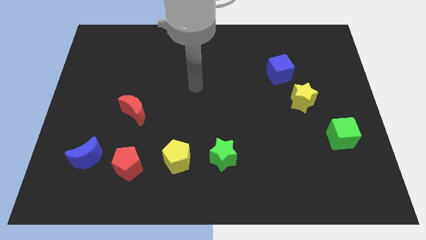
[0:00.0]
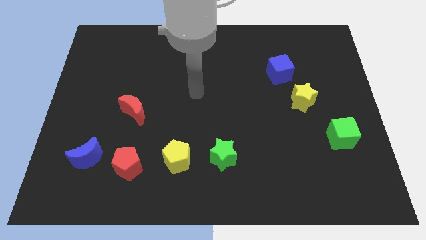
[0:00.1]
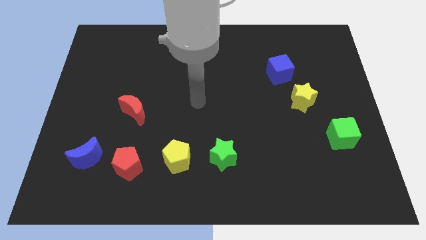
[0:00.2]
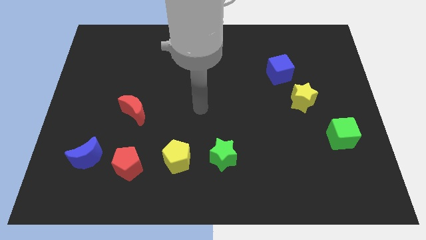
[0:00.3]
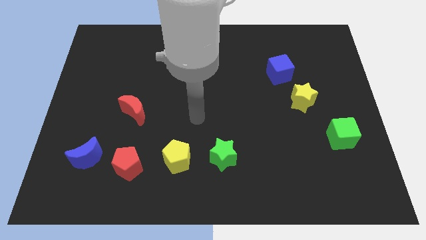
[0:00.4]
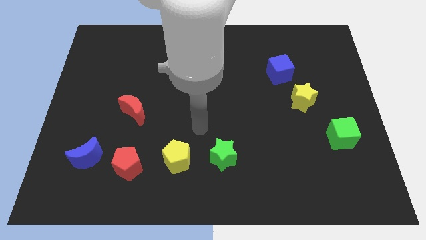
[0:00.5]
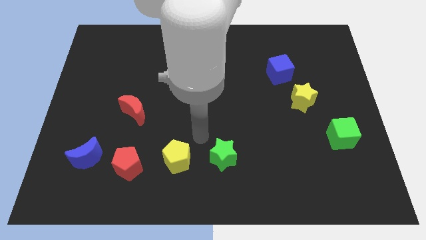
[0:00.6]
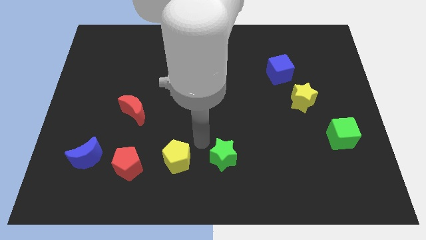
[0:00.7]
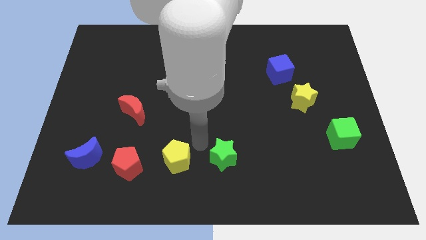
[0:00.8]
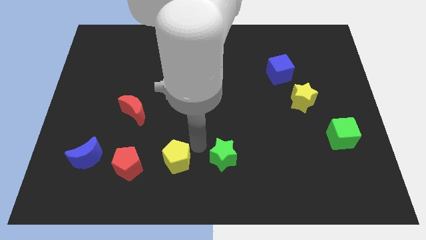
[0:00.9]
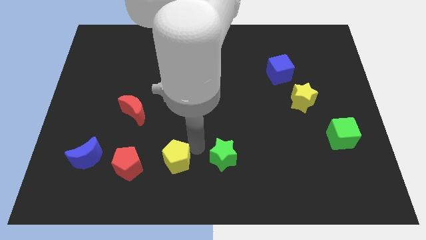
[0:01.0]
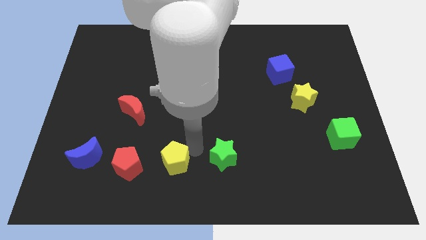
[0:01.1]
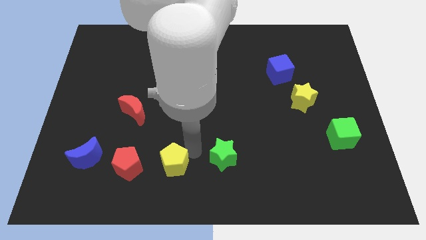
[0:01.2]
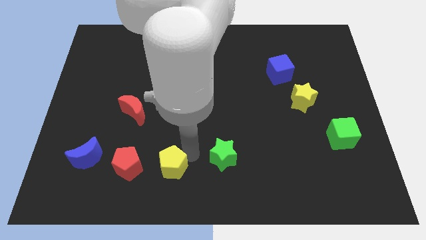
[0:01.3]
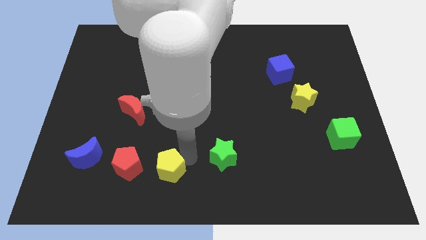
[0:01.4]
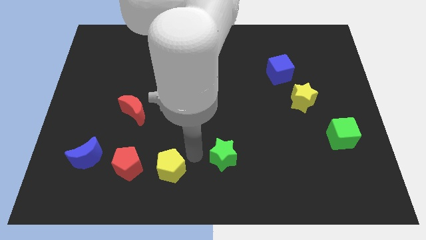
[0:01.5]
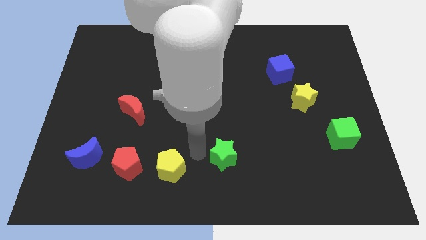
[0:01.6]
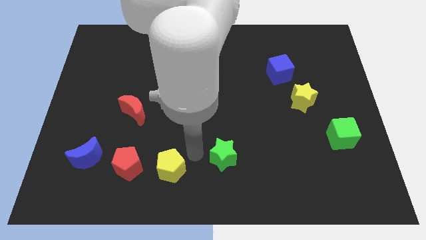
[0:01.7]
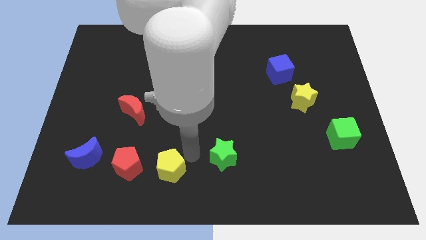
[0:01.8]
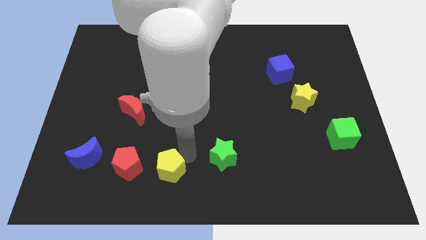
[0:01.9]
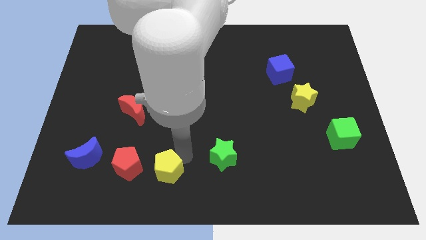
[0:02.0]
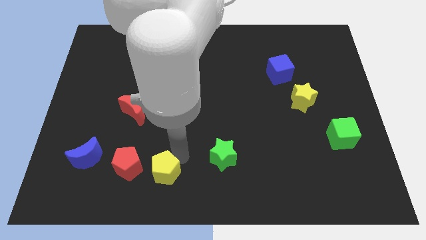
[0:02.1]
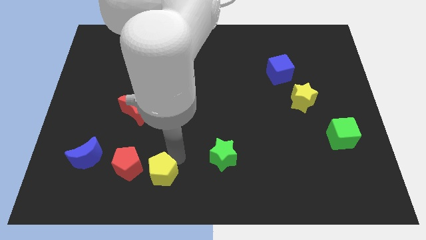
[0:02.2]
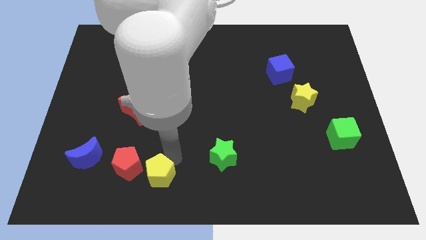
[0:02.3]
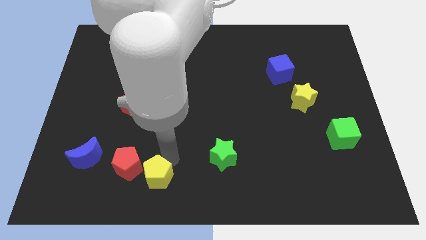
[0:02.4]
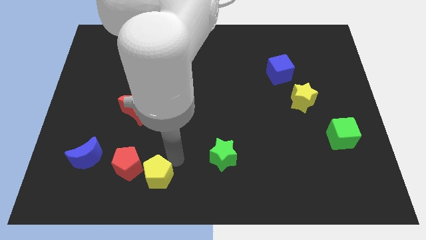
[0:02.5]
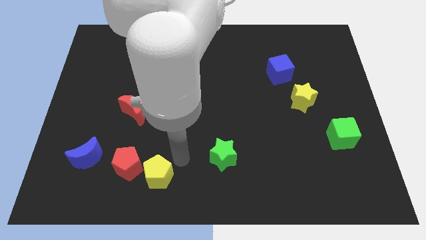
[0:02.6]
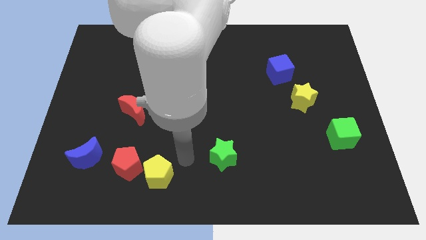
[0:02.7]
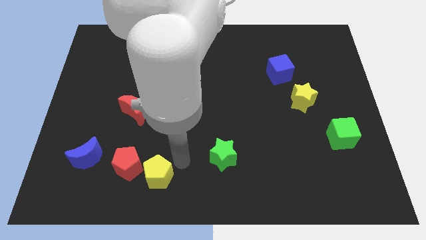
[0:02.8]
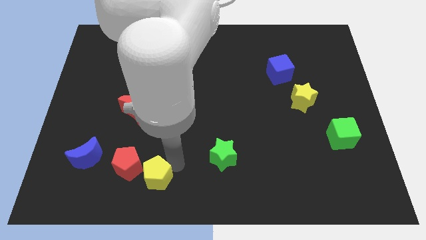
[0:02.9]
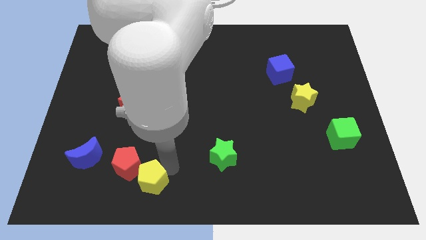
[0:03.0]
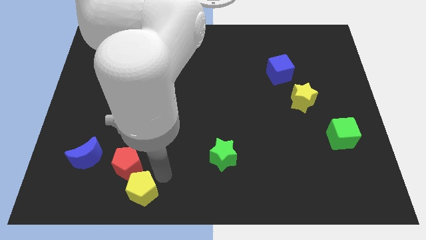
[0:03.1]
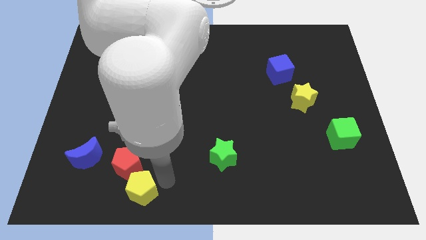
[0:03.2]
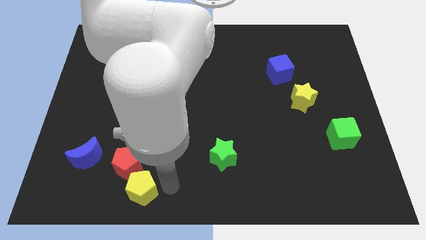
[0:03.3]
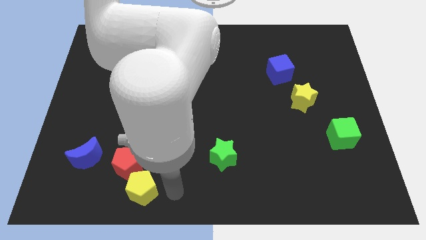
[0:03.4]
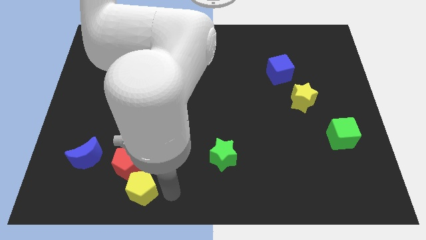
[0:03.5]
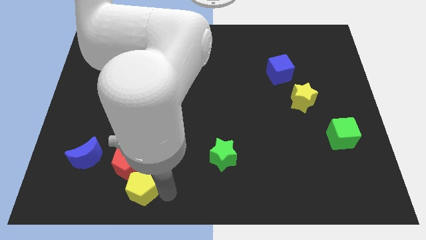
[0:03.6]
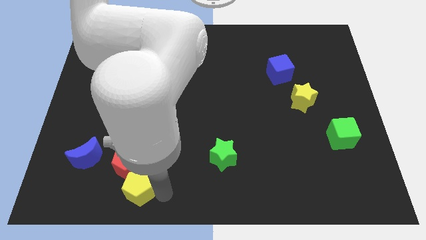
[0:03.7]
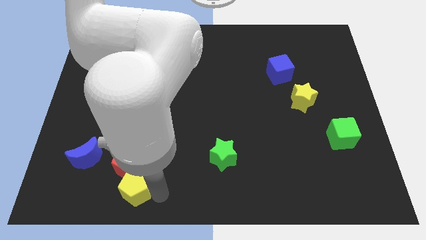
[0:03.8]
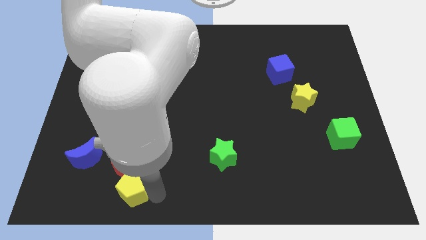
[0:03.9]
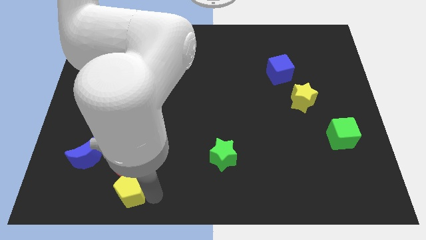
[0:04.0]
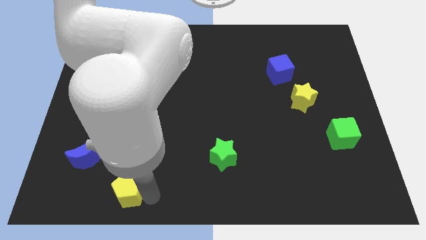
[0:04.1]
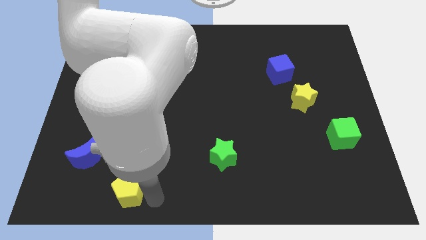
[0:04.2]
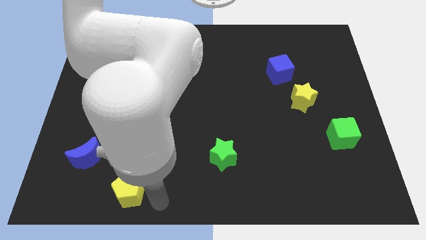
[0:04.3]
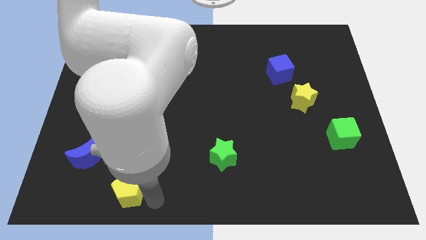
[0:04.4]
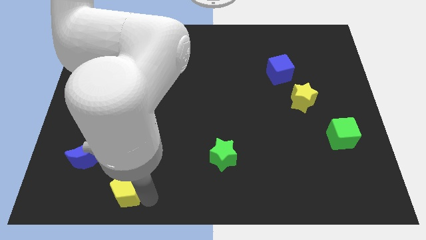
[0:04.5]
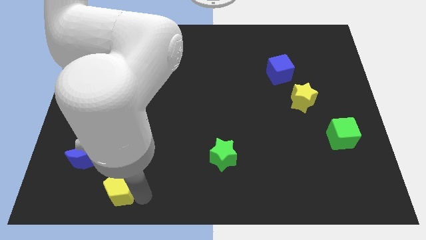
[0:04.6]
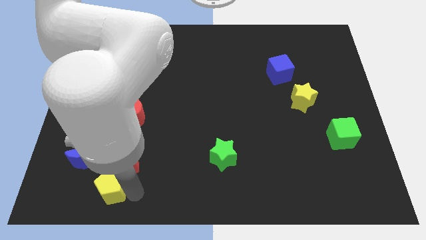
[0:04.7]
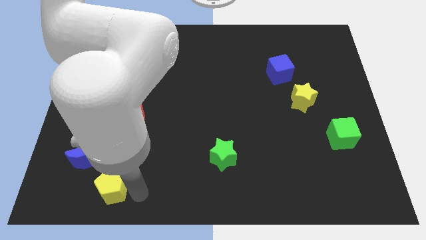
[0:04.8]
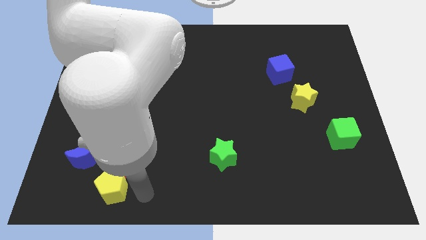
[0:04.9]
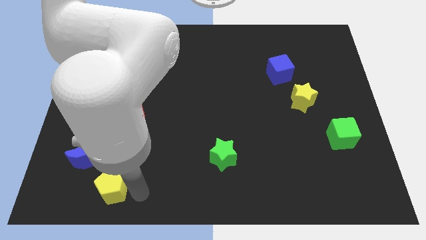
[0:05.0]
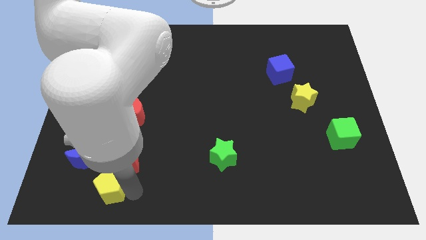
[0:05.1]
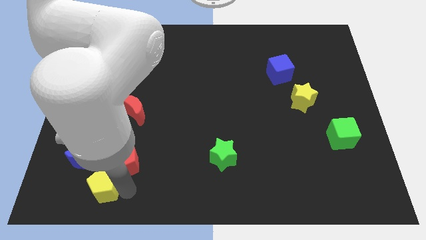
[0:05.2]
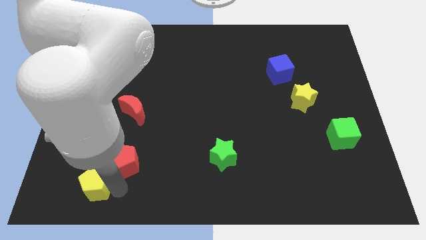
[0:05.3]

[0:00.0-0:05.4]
move the yellow pentagon to the left side of the red pentagon

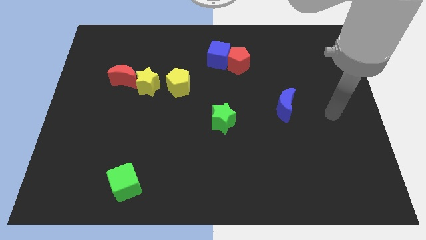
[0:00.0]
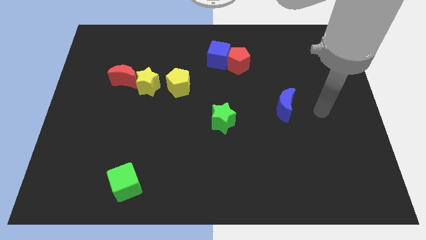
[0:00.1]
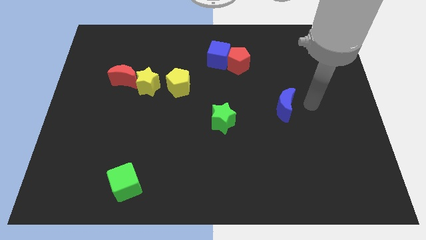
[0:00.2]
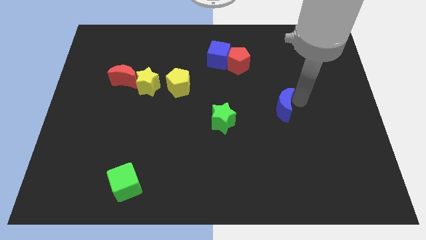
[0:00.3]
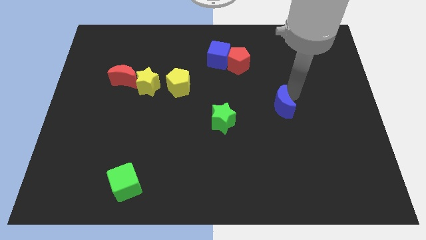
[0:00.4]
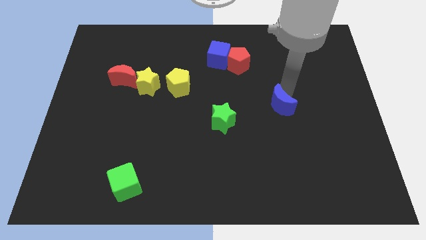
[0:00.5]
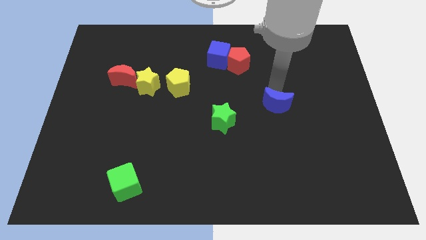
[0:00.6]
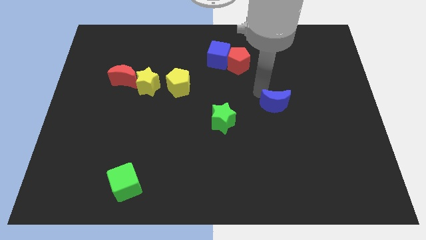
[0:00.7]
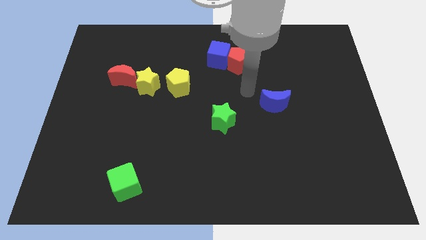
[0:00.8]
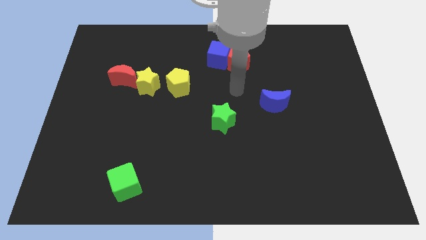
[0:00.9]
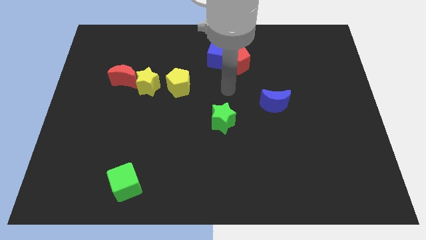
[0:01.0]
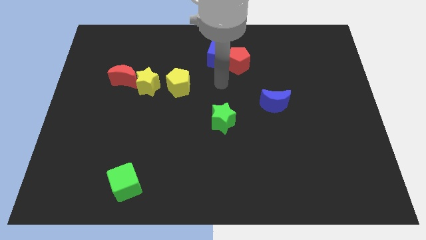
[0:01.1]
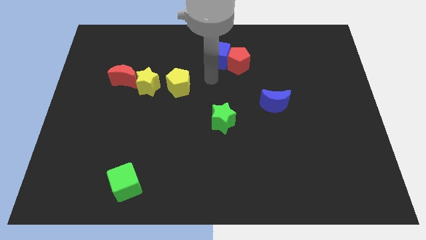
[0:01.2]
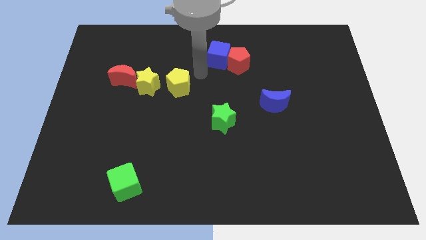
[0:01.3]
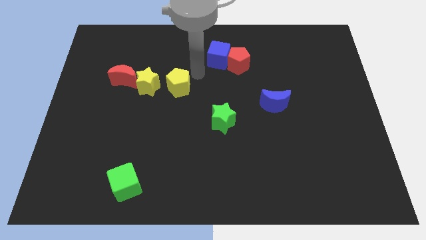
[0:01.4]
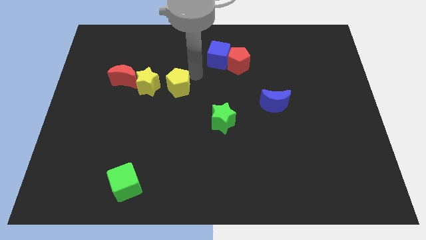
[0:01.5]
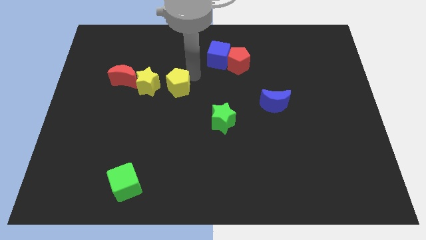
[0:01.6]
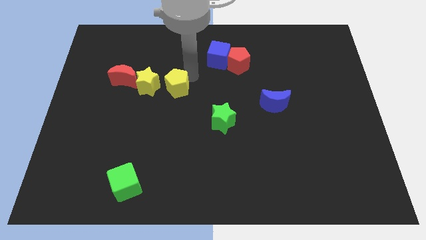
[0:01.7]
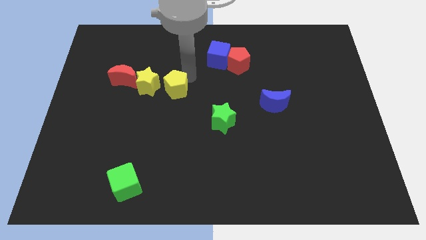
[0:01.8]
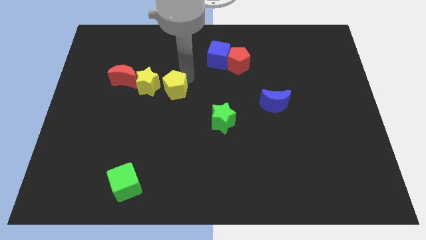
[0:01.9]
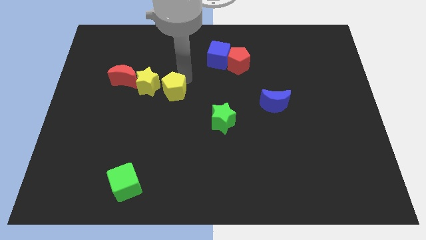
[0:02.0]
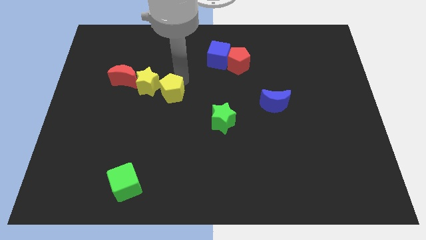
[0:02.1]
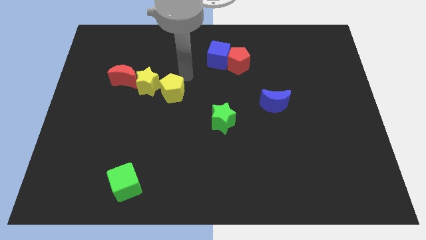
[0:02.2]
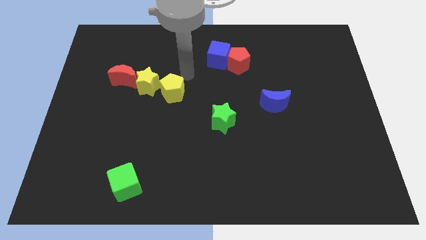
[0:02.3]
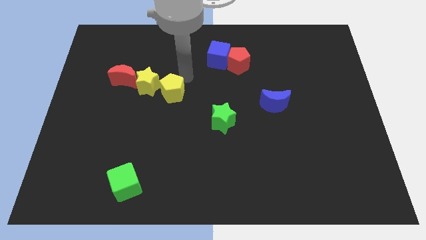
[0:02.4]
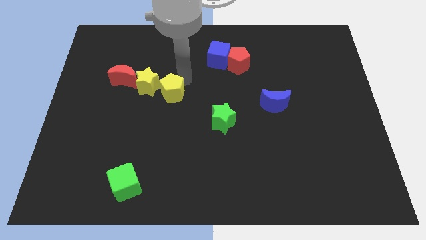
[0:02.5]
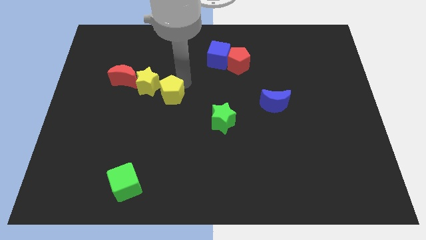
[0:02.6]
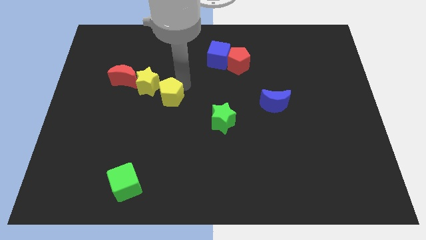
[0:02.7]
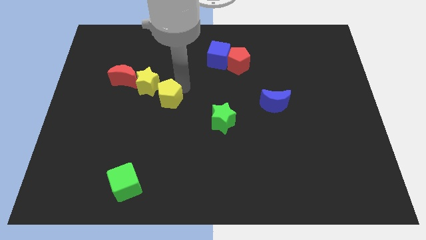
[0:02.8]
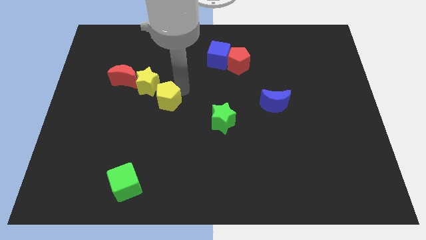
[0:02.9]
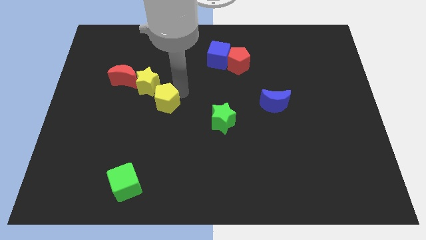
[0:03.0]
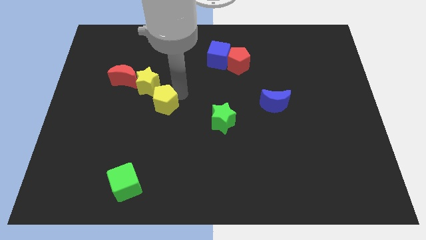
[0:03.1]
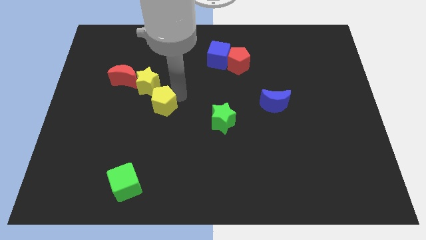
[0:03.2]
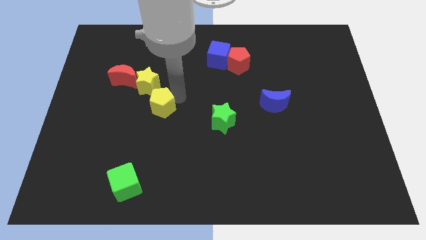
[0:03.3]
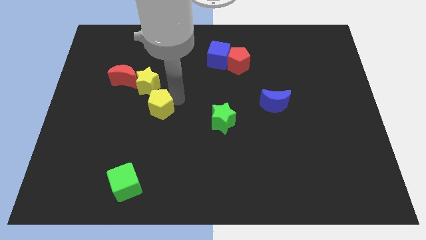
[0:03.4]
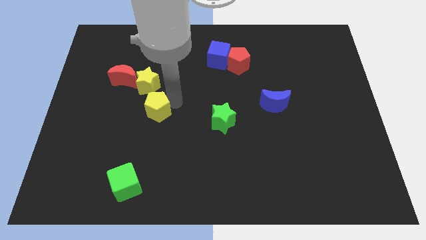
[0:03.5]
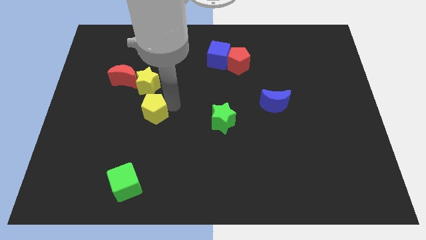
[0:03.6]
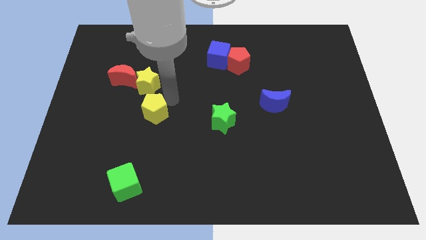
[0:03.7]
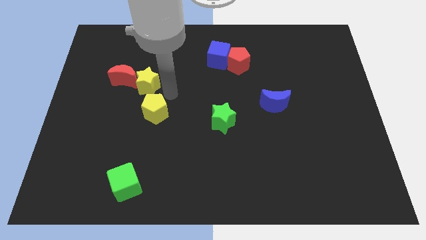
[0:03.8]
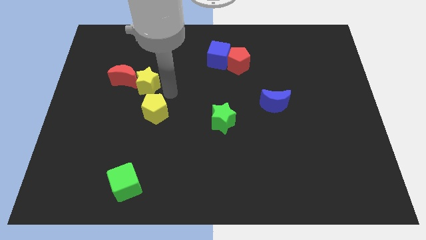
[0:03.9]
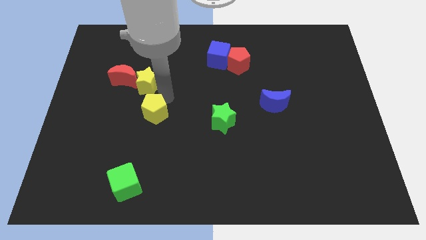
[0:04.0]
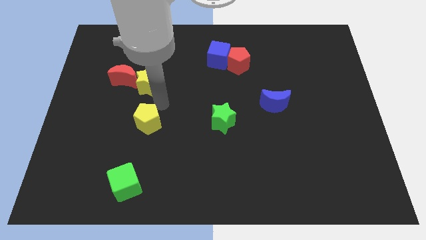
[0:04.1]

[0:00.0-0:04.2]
push the yellow pentagon above the green cube
